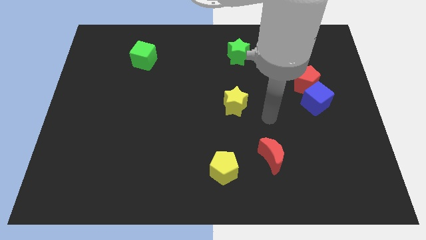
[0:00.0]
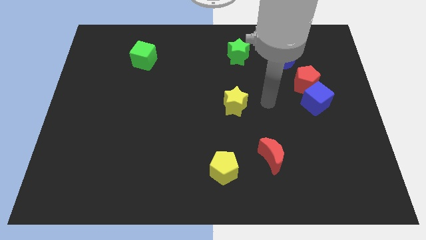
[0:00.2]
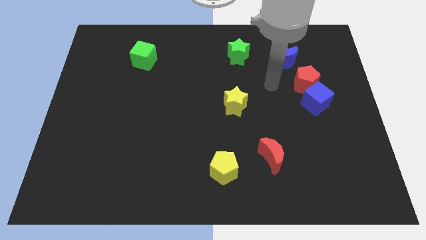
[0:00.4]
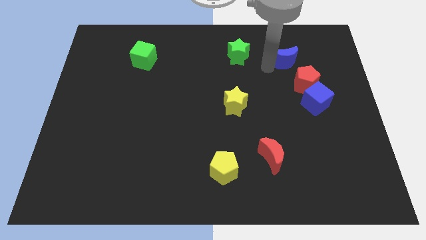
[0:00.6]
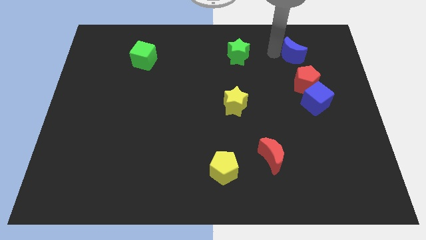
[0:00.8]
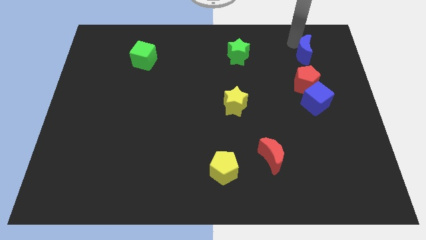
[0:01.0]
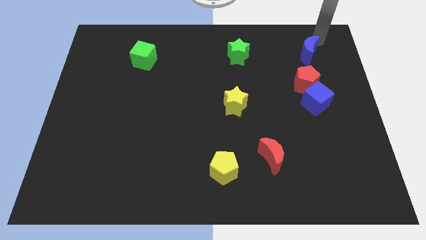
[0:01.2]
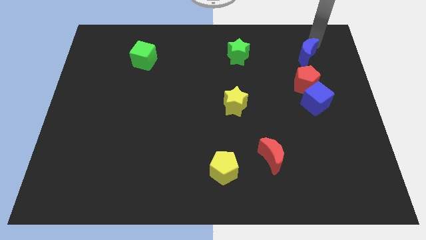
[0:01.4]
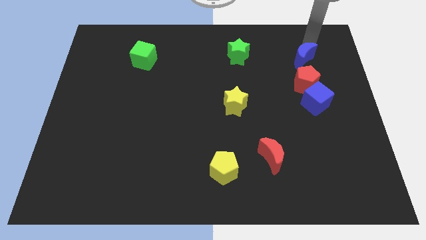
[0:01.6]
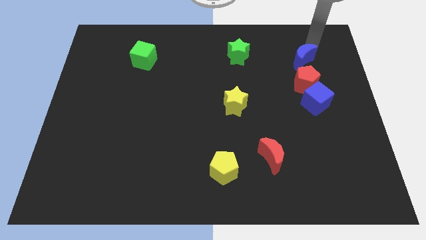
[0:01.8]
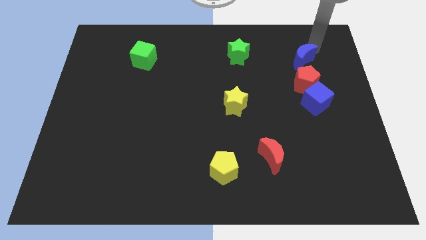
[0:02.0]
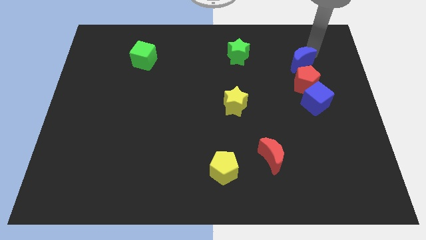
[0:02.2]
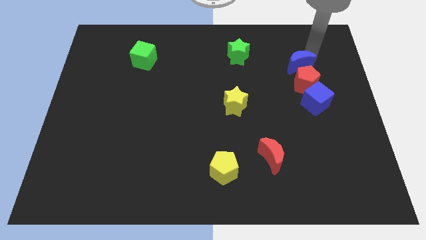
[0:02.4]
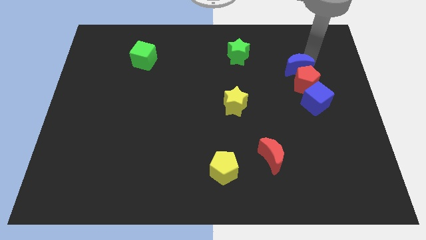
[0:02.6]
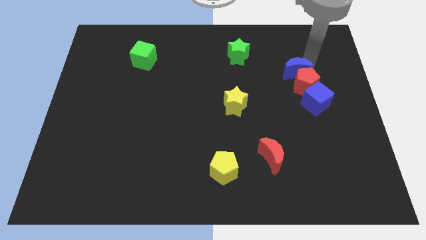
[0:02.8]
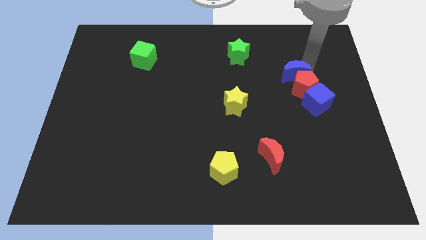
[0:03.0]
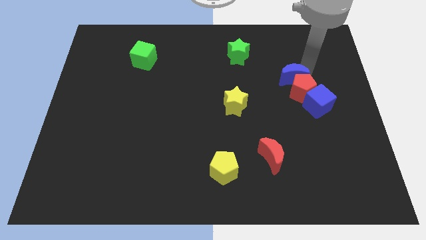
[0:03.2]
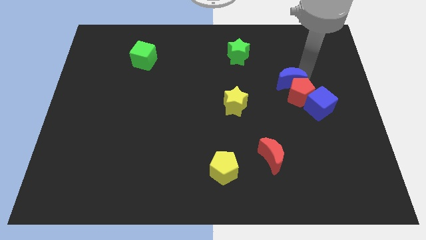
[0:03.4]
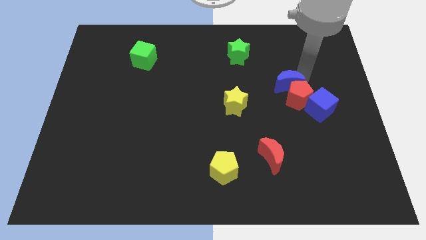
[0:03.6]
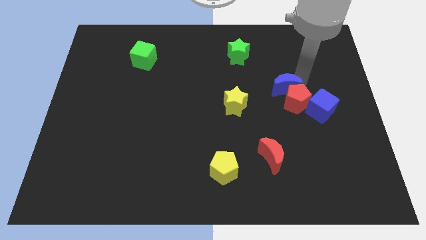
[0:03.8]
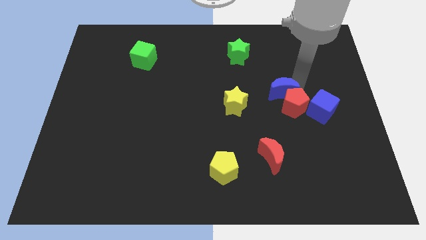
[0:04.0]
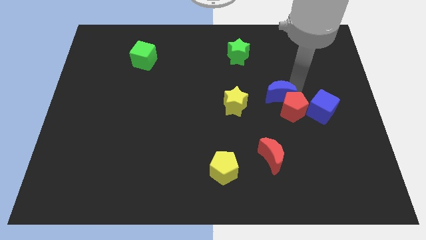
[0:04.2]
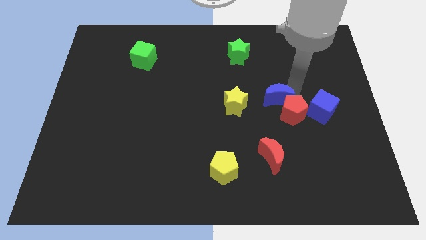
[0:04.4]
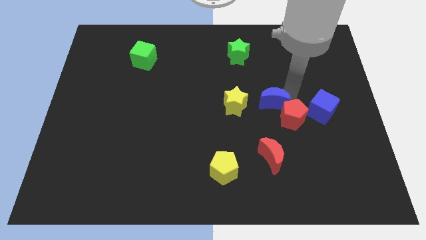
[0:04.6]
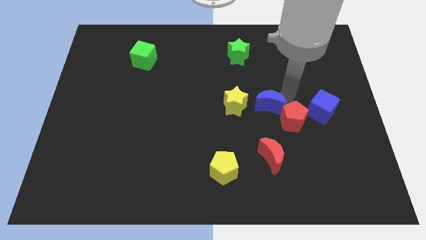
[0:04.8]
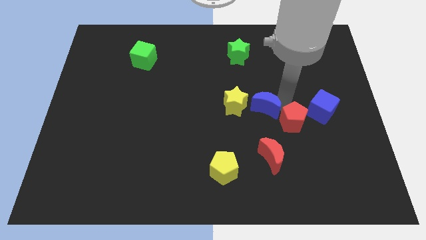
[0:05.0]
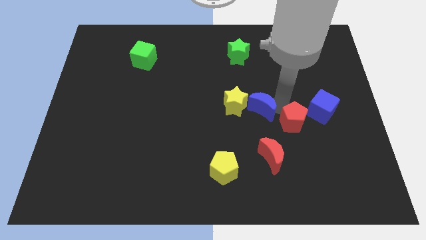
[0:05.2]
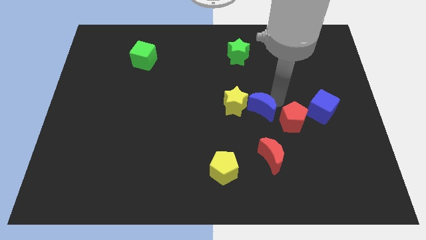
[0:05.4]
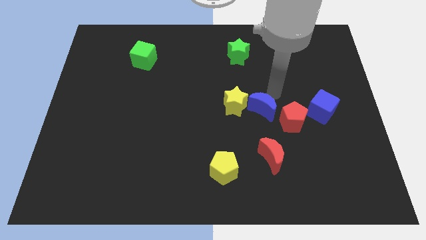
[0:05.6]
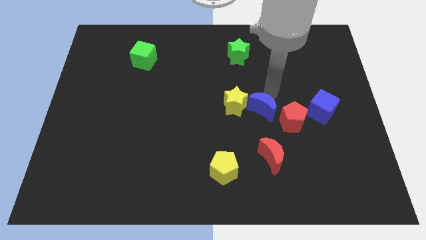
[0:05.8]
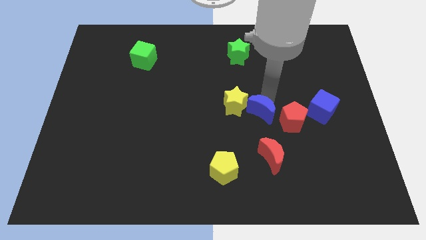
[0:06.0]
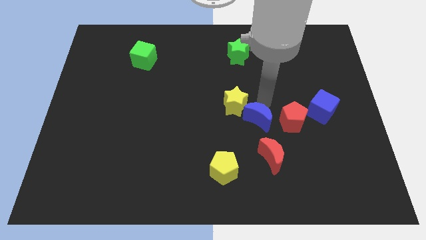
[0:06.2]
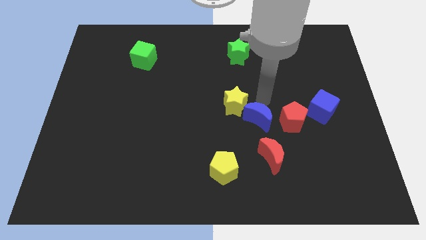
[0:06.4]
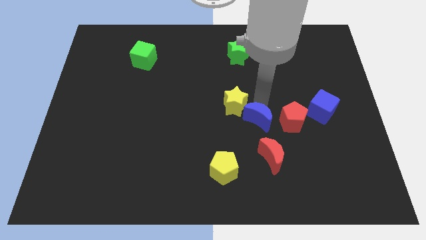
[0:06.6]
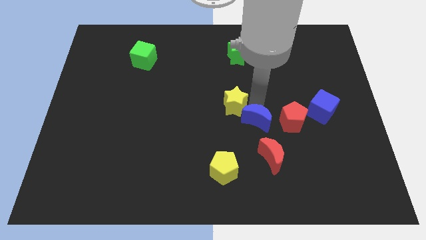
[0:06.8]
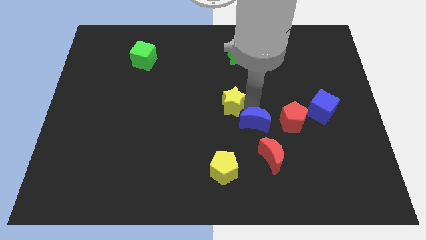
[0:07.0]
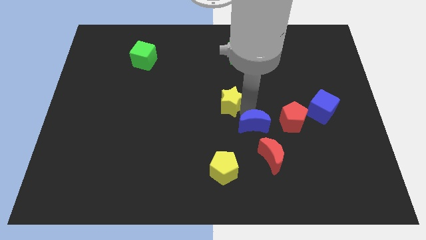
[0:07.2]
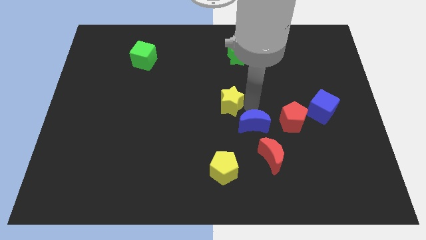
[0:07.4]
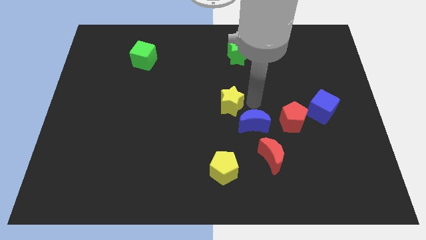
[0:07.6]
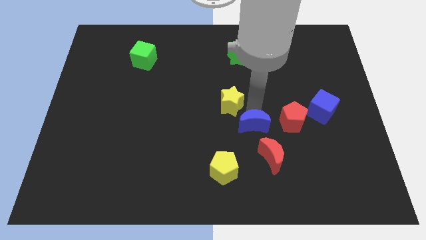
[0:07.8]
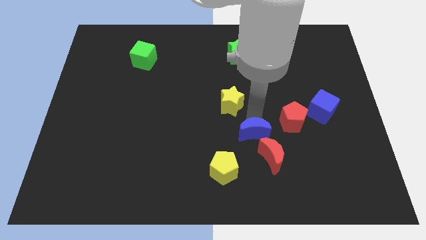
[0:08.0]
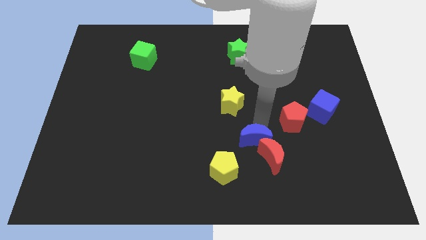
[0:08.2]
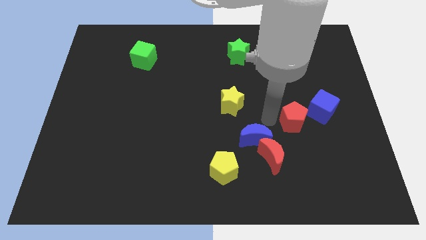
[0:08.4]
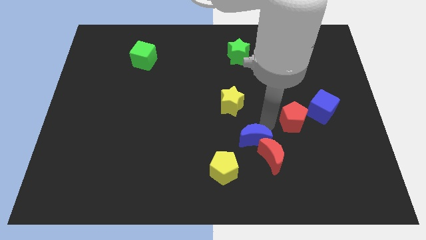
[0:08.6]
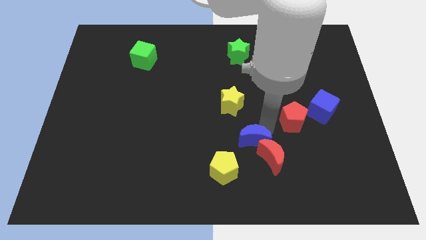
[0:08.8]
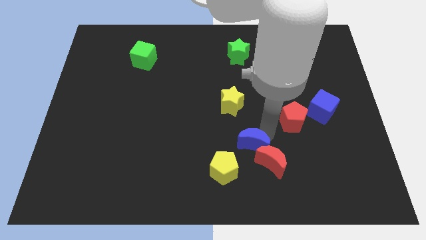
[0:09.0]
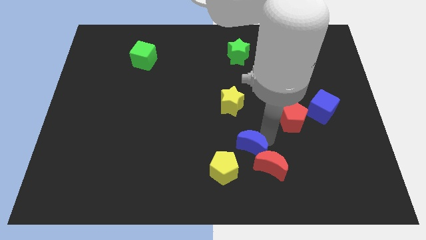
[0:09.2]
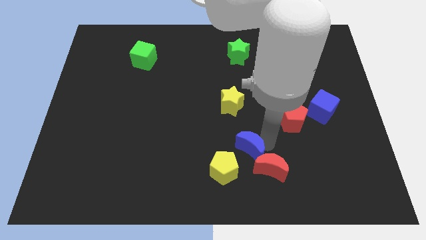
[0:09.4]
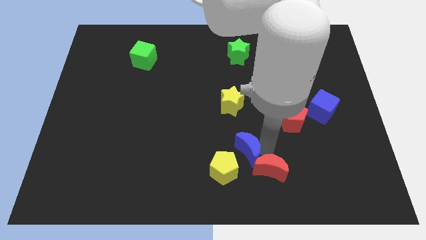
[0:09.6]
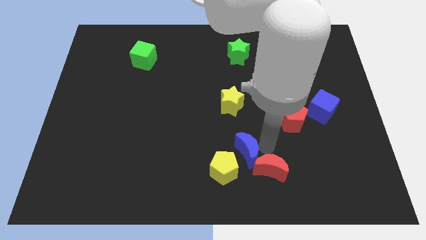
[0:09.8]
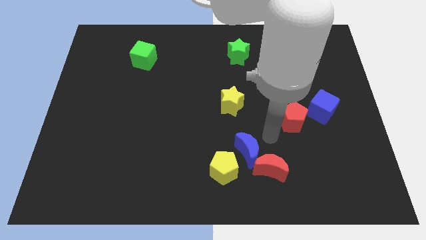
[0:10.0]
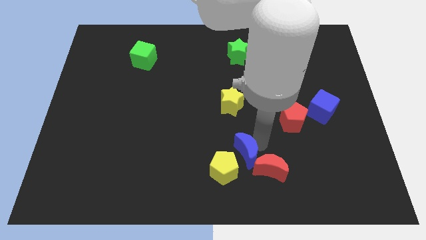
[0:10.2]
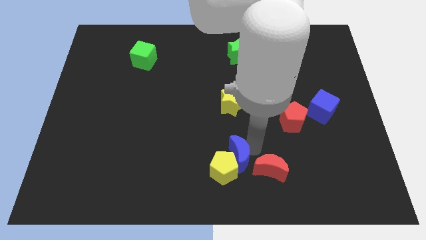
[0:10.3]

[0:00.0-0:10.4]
slide the blue moon to the yellow pentagon

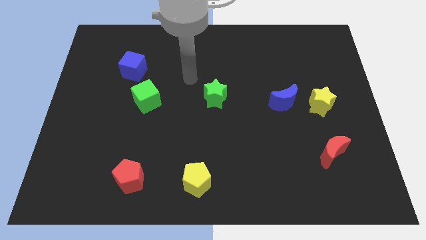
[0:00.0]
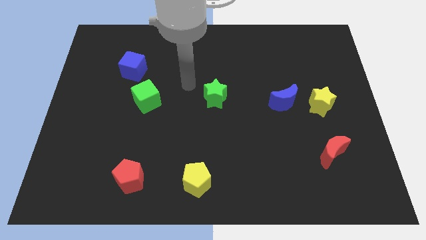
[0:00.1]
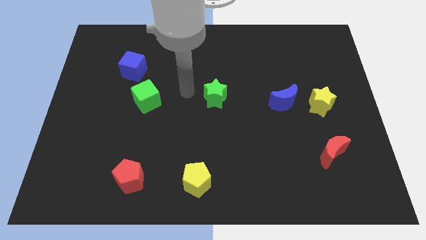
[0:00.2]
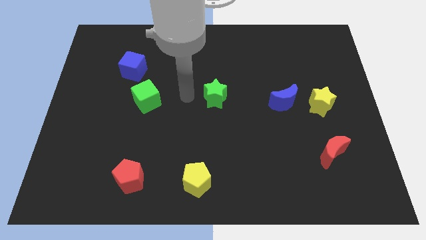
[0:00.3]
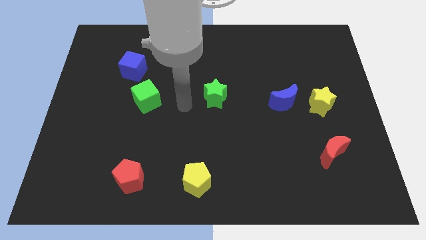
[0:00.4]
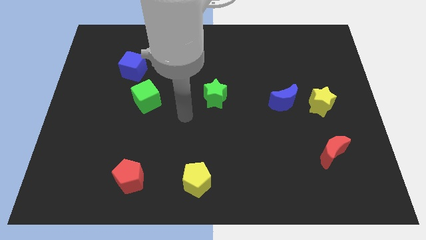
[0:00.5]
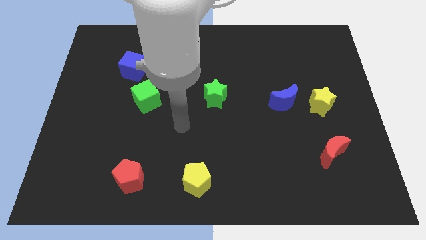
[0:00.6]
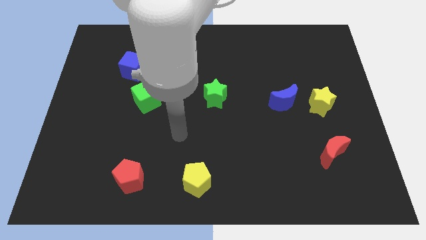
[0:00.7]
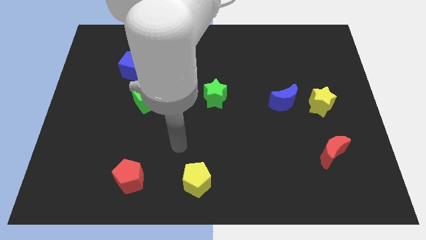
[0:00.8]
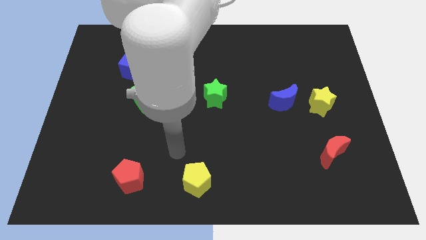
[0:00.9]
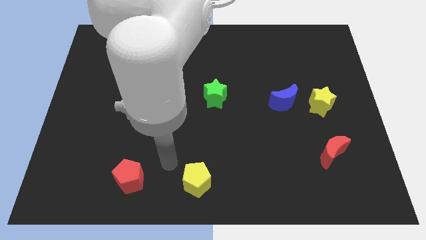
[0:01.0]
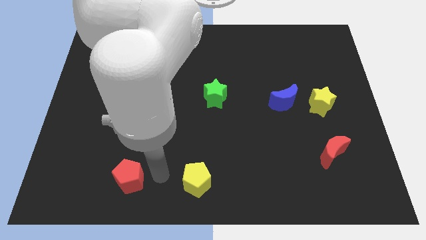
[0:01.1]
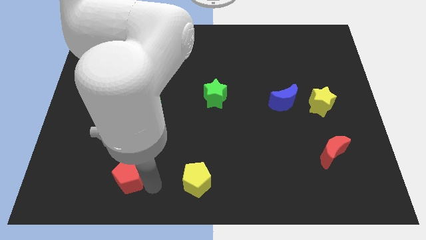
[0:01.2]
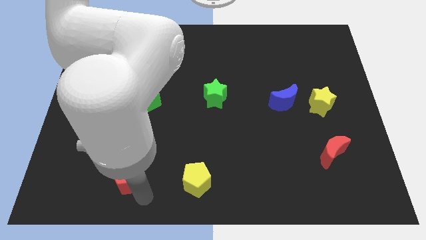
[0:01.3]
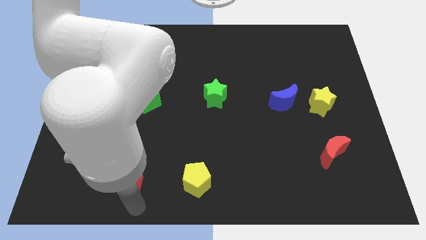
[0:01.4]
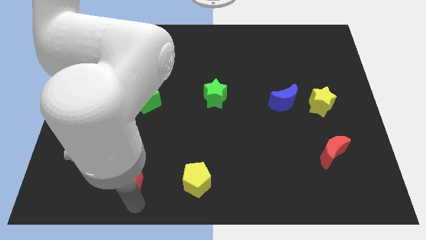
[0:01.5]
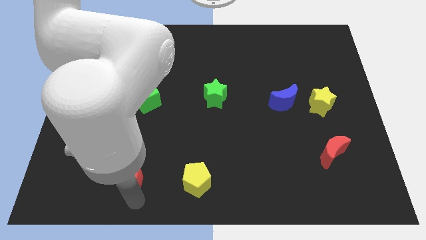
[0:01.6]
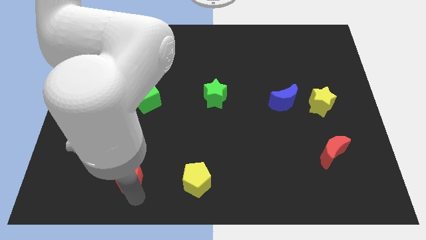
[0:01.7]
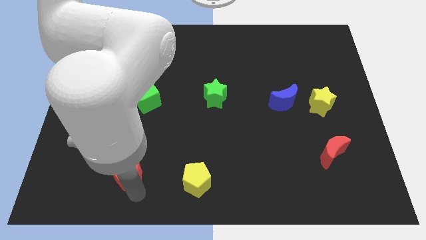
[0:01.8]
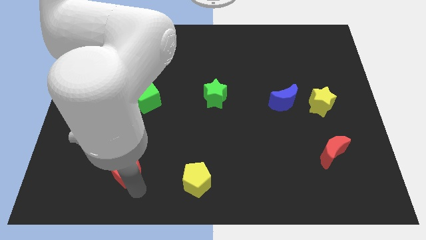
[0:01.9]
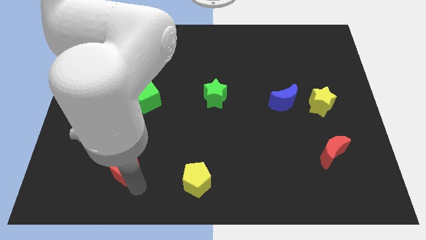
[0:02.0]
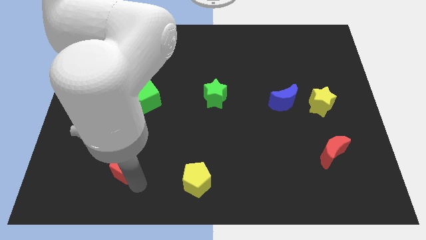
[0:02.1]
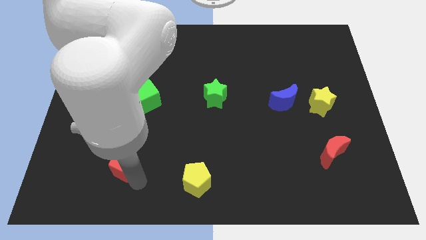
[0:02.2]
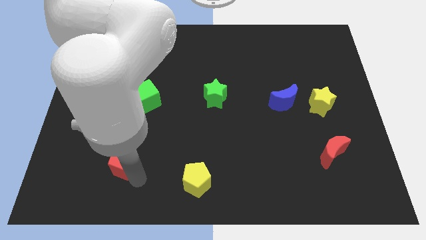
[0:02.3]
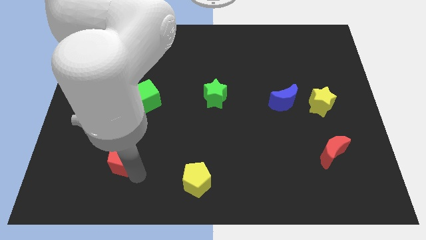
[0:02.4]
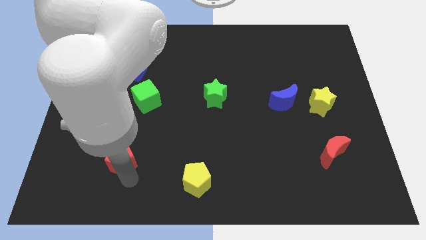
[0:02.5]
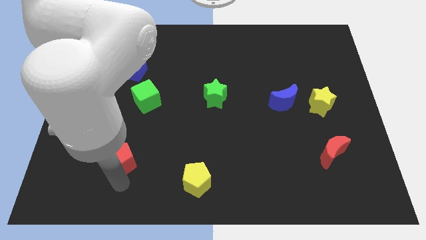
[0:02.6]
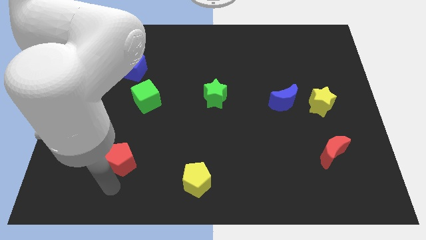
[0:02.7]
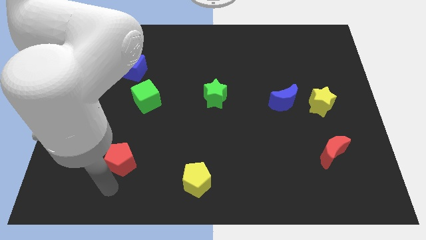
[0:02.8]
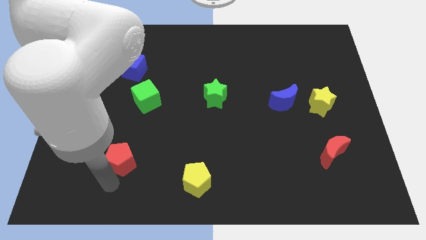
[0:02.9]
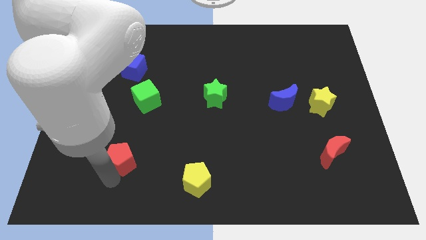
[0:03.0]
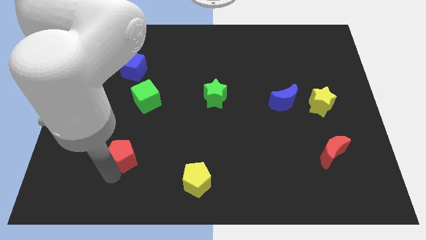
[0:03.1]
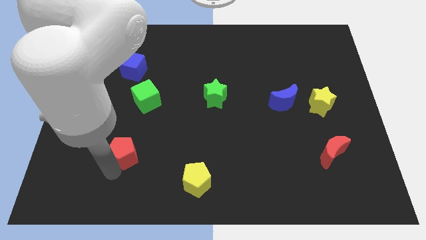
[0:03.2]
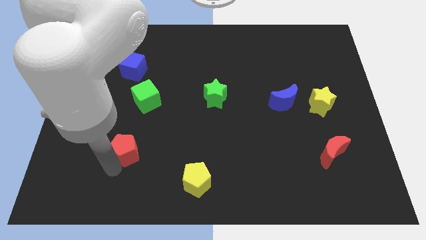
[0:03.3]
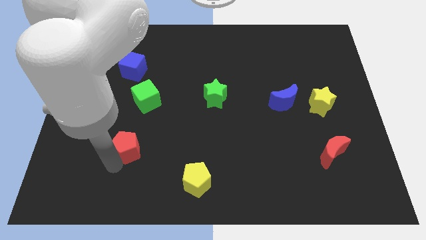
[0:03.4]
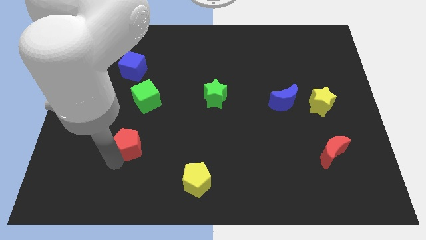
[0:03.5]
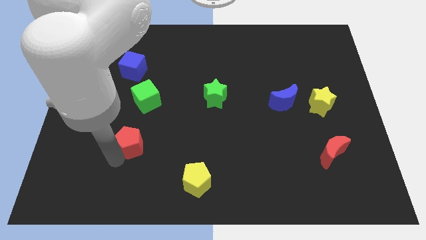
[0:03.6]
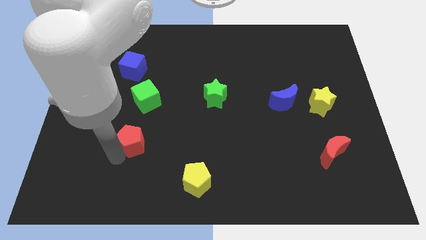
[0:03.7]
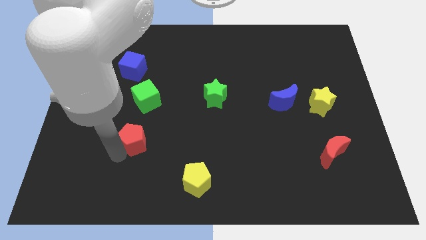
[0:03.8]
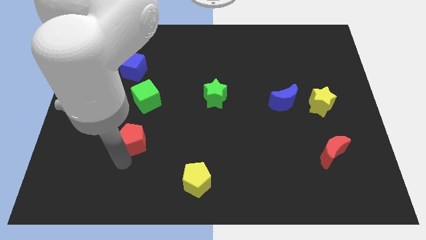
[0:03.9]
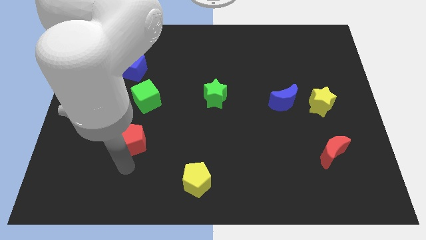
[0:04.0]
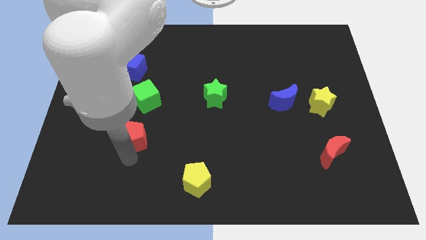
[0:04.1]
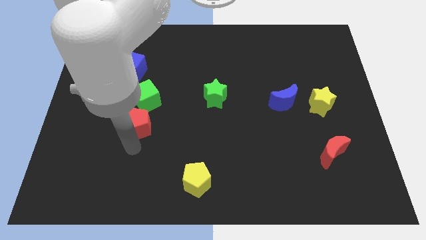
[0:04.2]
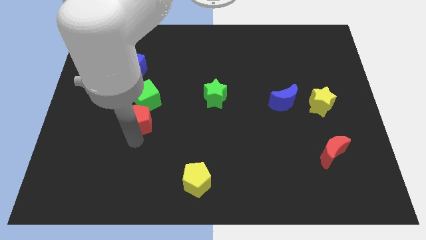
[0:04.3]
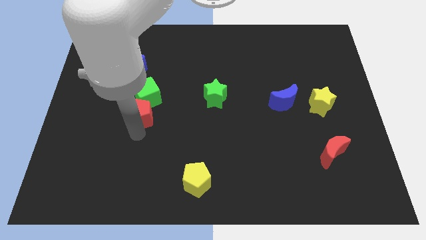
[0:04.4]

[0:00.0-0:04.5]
slide the red pentagon to the green cube
